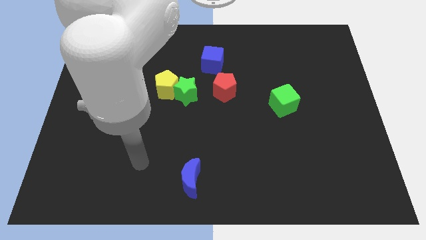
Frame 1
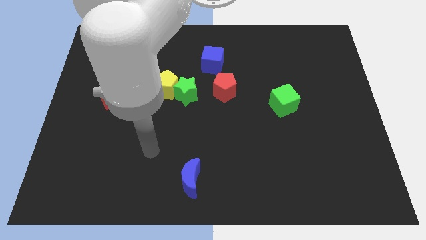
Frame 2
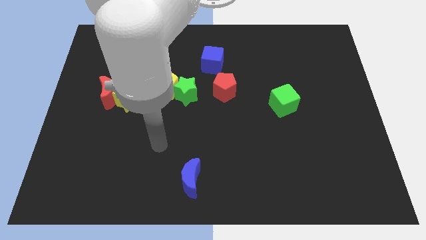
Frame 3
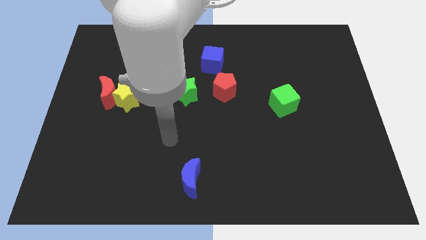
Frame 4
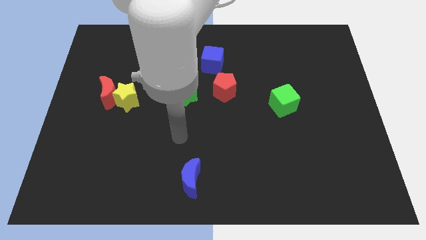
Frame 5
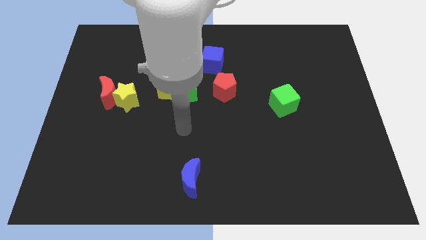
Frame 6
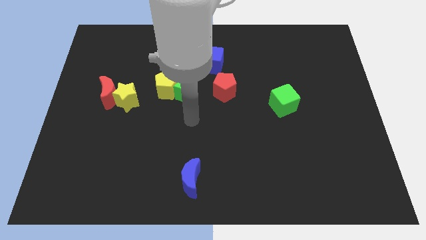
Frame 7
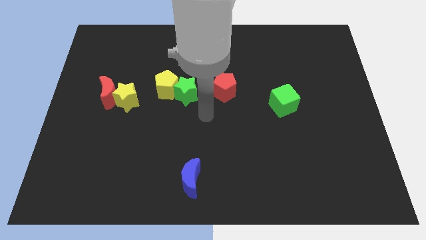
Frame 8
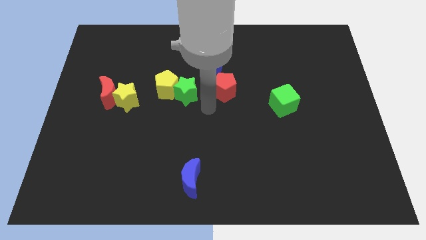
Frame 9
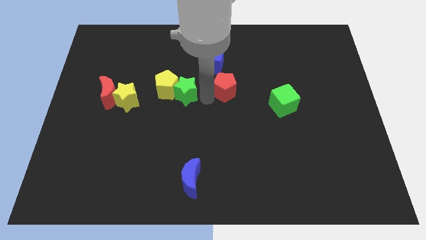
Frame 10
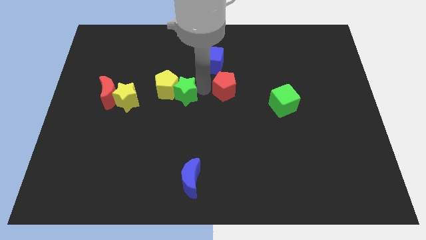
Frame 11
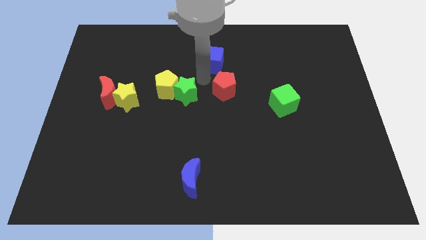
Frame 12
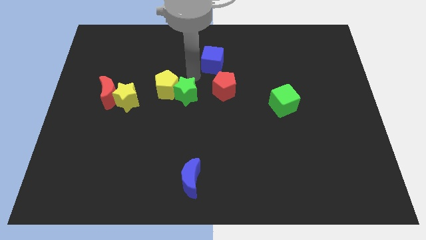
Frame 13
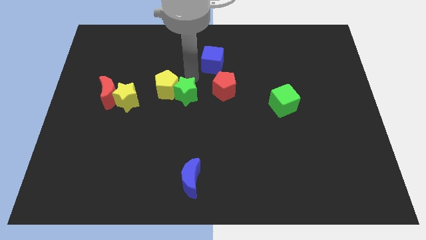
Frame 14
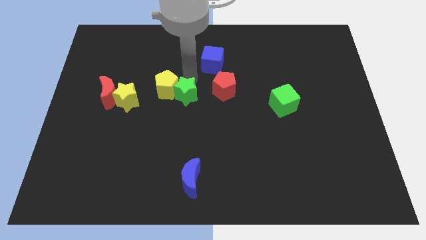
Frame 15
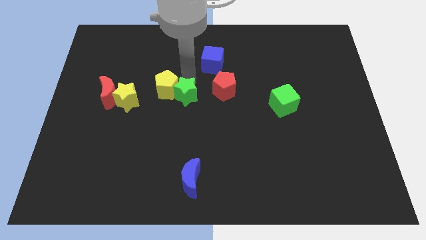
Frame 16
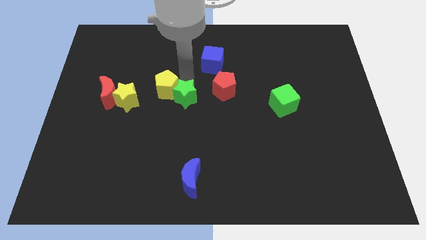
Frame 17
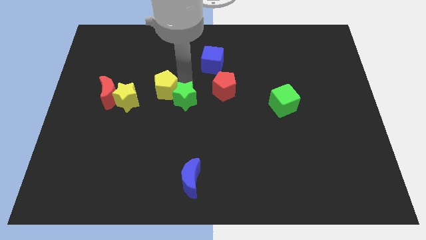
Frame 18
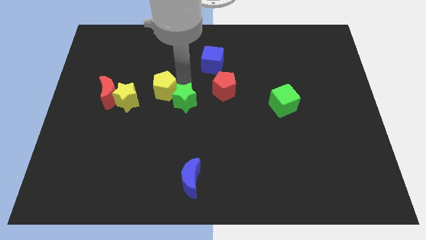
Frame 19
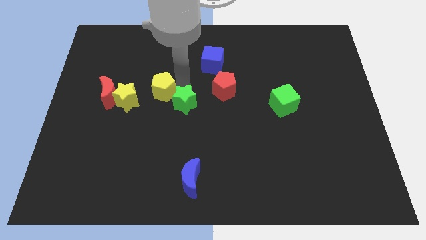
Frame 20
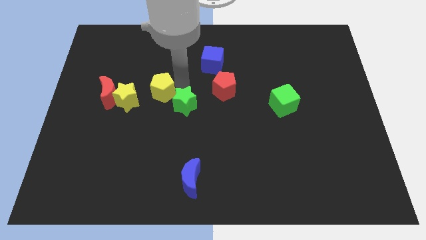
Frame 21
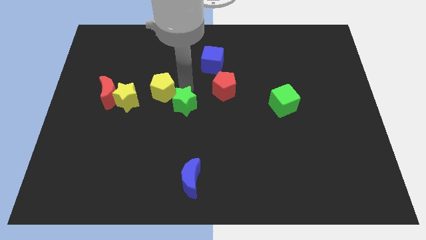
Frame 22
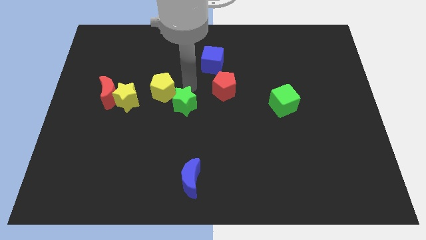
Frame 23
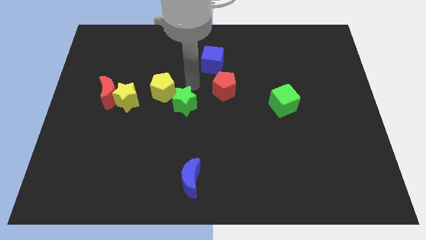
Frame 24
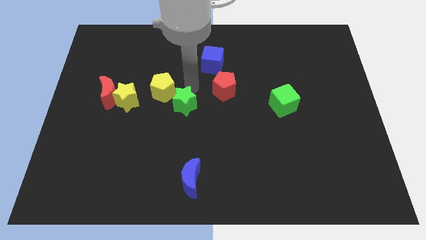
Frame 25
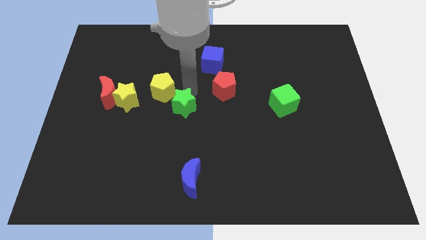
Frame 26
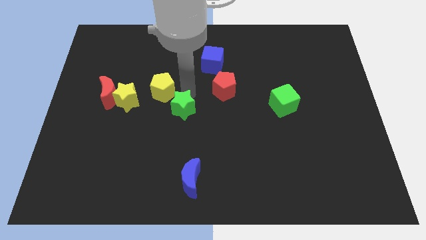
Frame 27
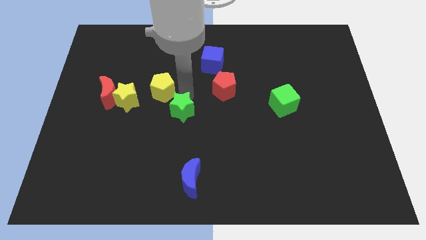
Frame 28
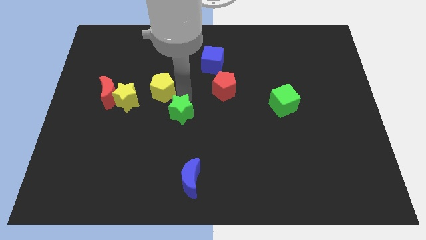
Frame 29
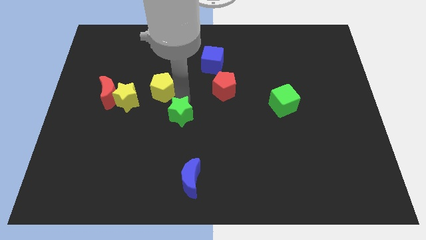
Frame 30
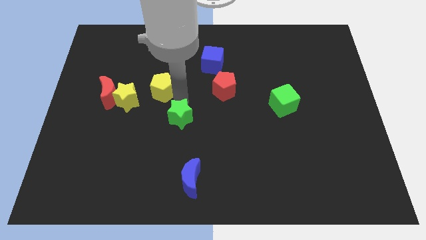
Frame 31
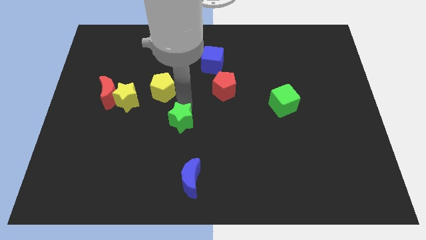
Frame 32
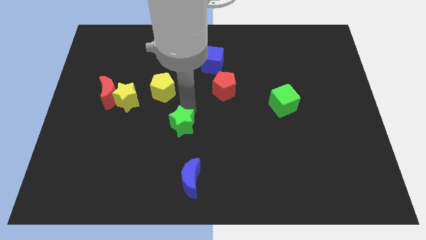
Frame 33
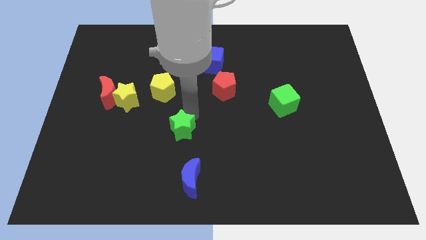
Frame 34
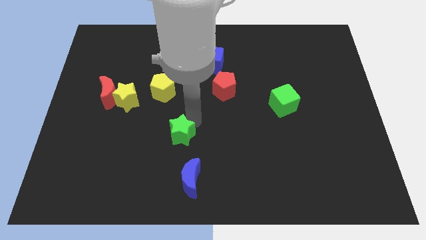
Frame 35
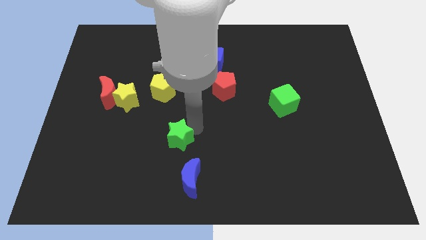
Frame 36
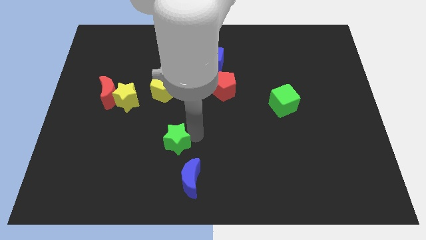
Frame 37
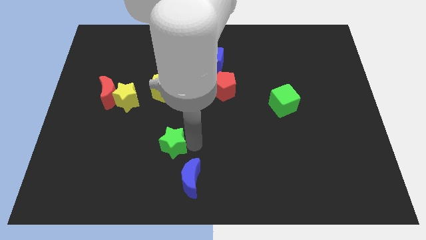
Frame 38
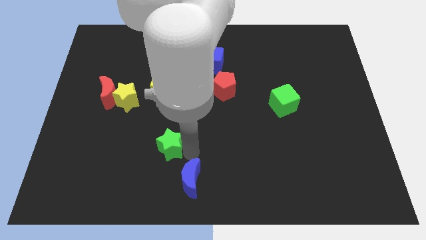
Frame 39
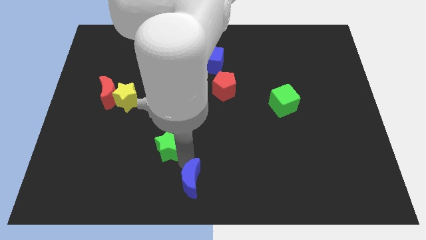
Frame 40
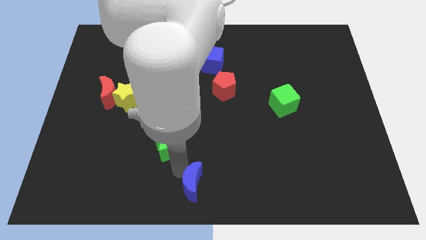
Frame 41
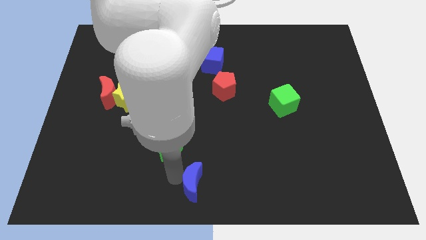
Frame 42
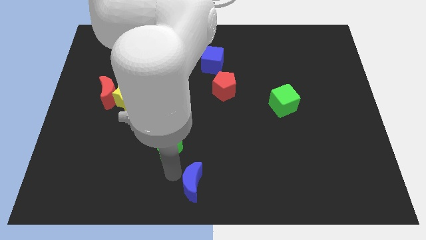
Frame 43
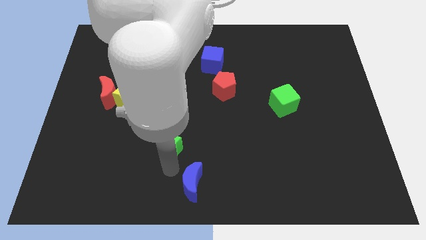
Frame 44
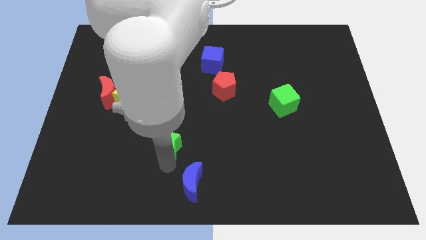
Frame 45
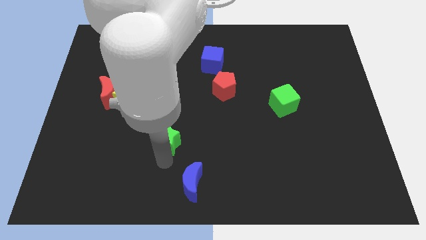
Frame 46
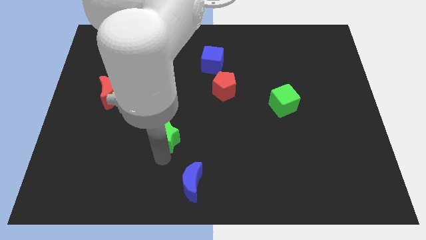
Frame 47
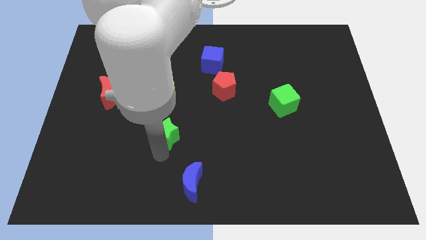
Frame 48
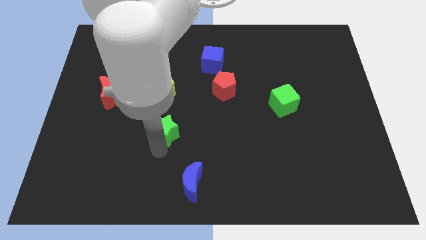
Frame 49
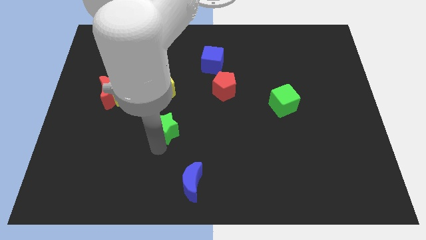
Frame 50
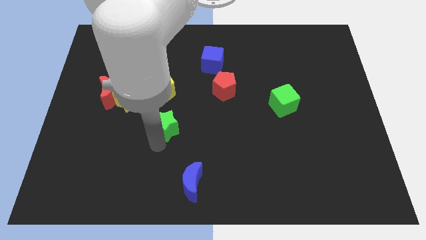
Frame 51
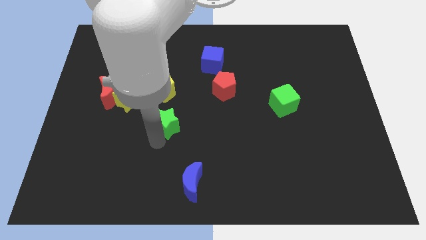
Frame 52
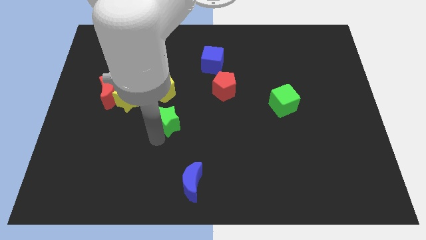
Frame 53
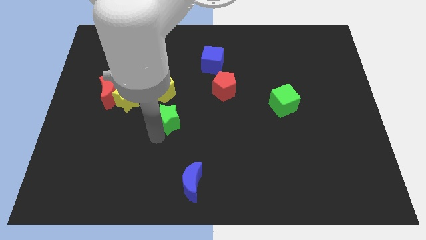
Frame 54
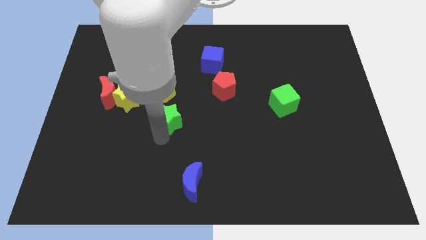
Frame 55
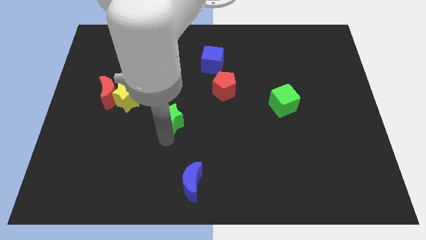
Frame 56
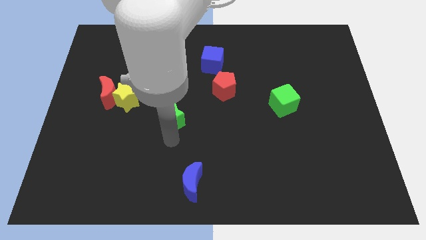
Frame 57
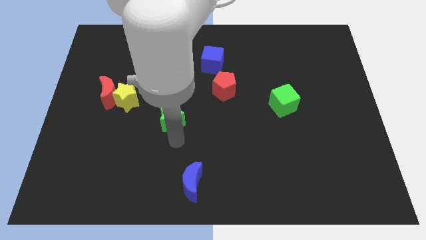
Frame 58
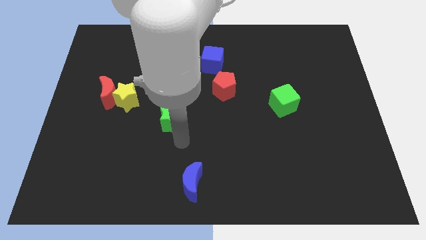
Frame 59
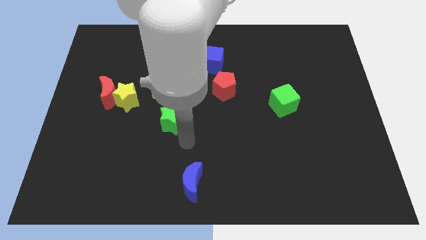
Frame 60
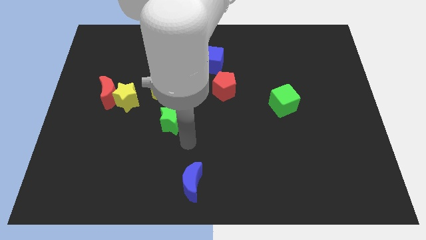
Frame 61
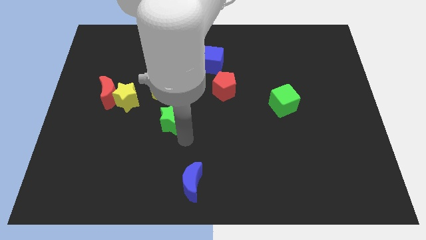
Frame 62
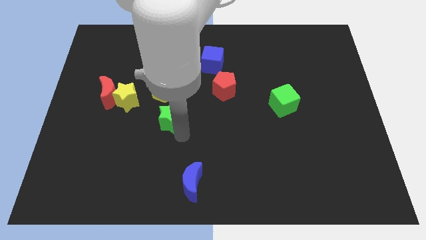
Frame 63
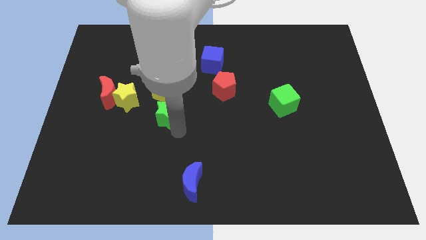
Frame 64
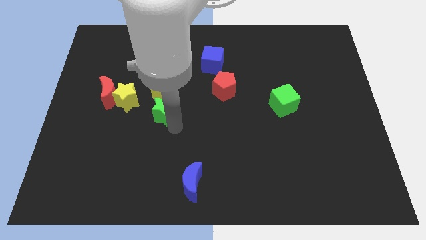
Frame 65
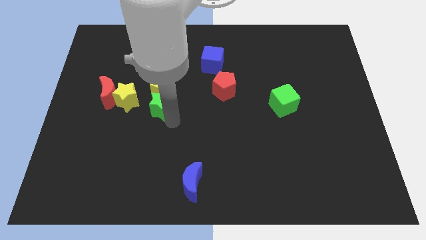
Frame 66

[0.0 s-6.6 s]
put the green star to the bottom left side of the yellow pentagon

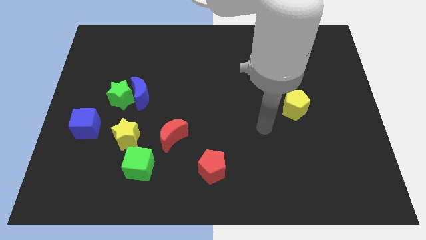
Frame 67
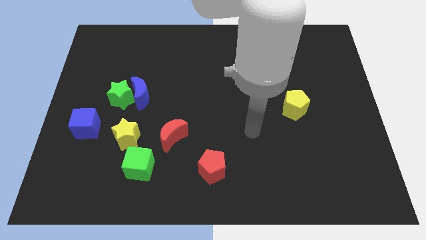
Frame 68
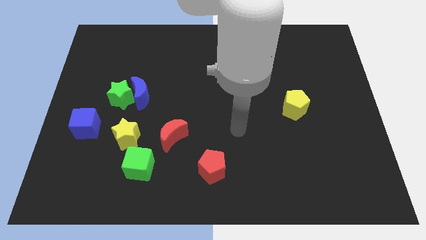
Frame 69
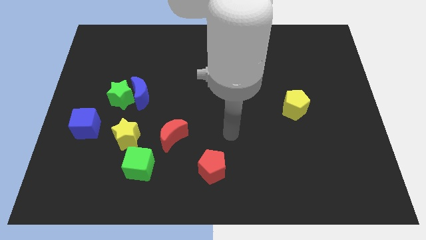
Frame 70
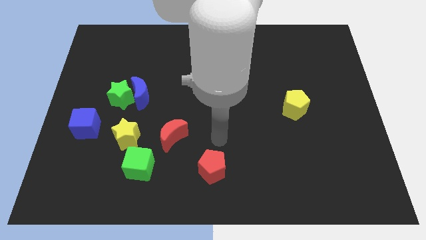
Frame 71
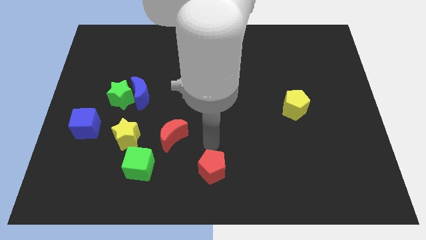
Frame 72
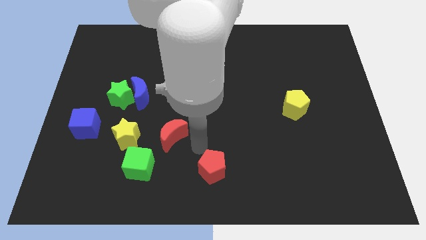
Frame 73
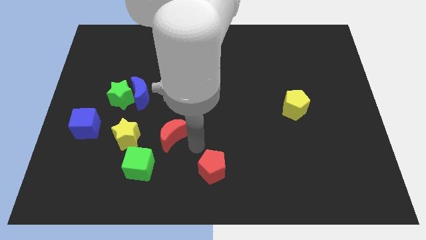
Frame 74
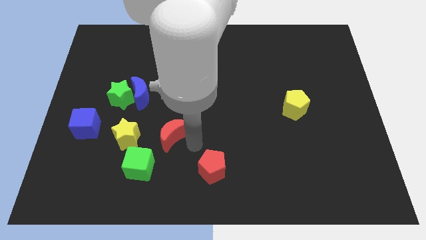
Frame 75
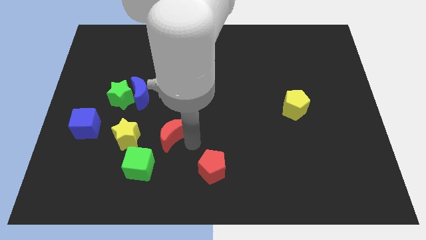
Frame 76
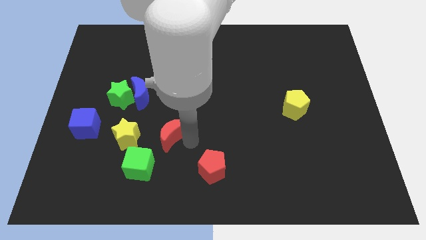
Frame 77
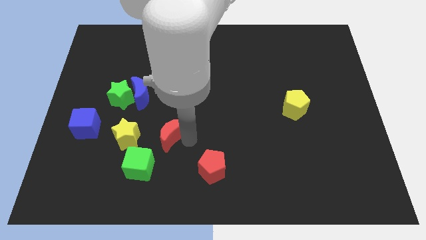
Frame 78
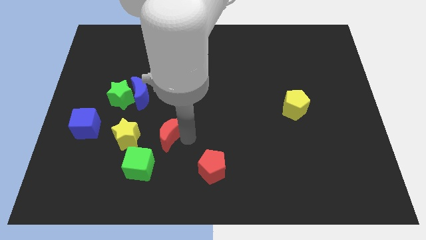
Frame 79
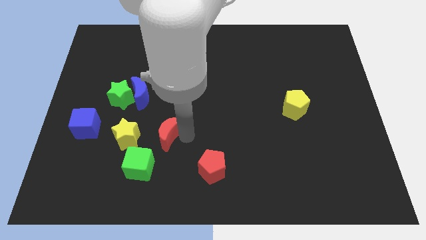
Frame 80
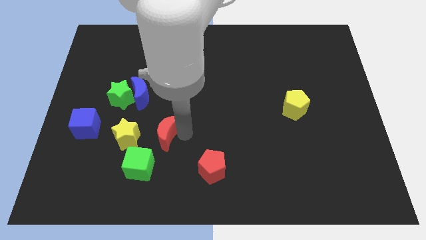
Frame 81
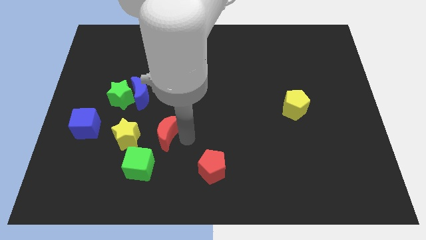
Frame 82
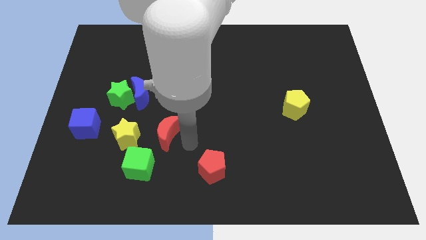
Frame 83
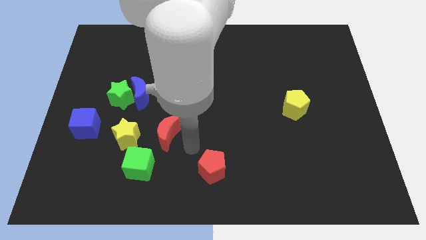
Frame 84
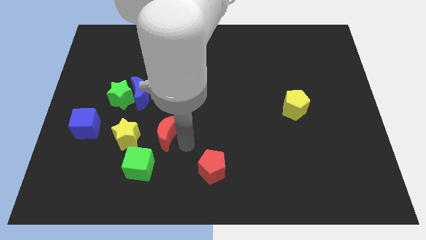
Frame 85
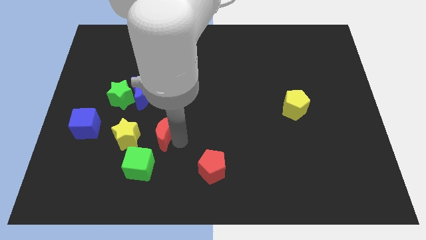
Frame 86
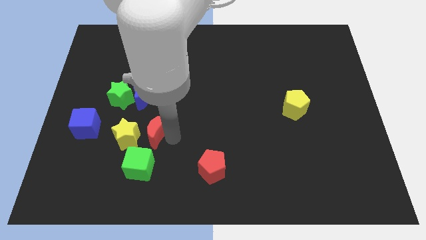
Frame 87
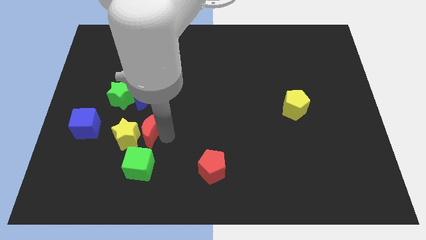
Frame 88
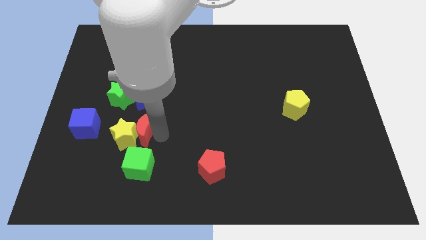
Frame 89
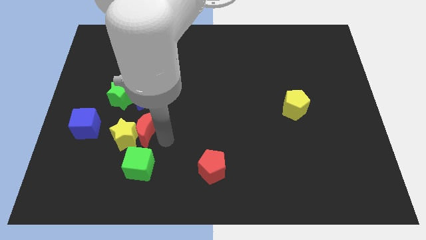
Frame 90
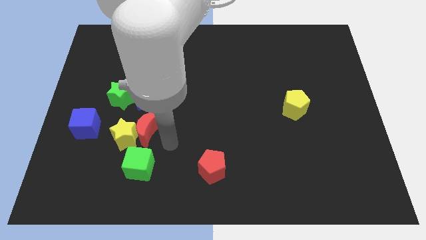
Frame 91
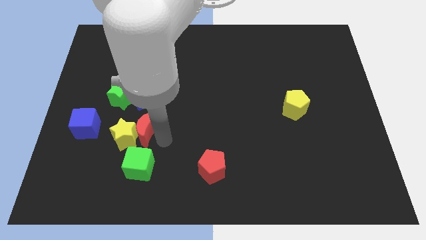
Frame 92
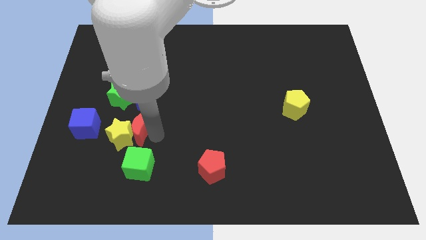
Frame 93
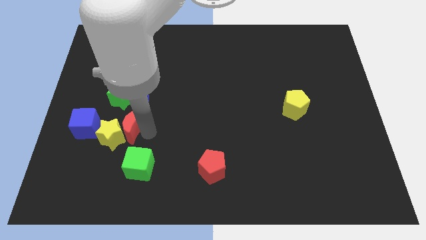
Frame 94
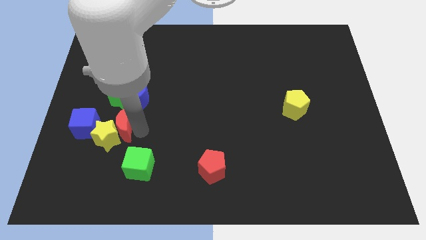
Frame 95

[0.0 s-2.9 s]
slide the red moon diagonally down and to the left of the blue moon
